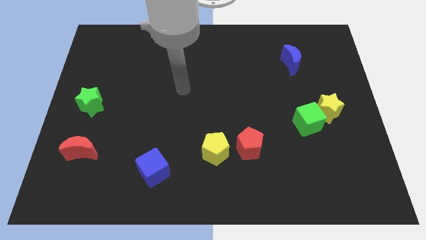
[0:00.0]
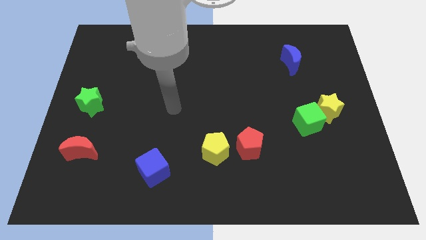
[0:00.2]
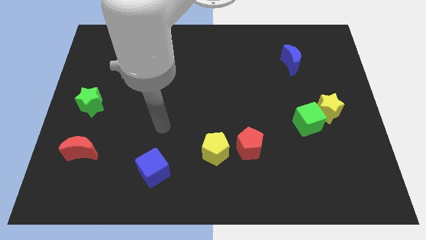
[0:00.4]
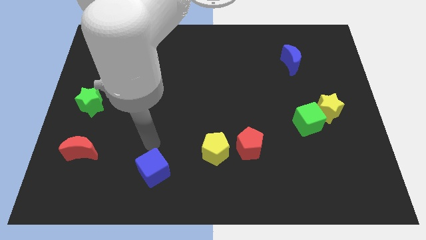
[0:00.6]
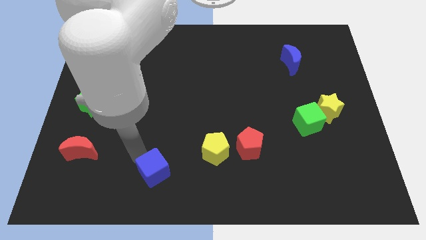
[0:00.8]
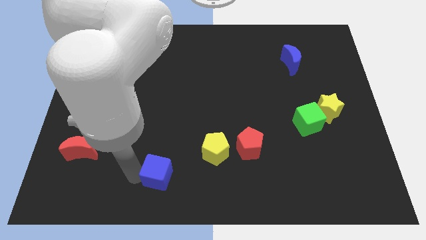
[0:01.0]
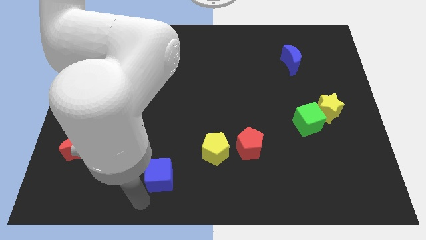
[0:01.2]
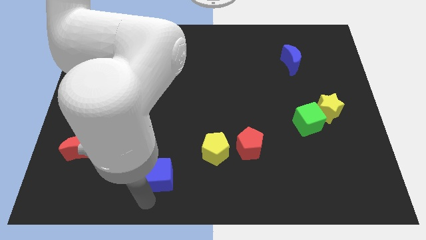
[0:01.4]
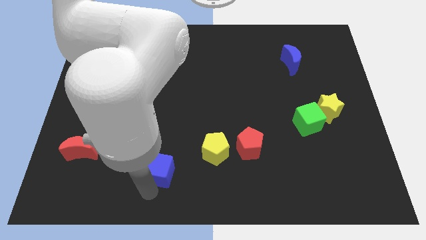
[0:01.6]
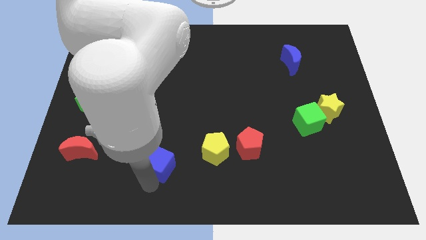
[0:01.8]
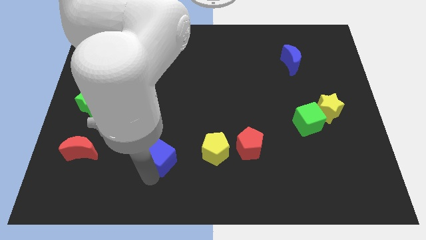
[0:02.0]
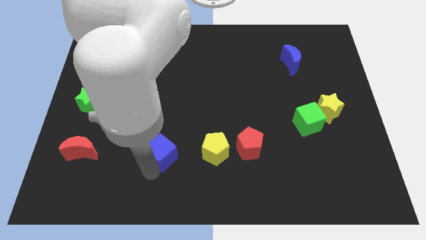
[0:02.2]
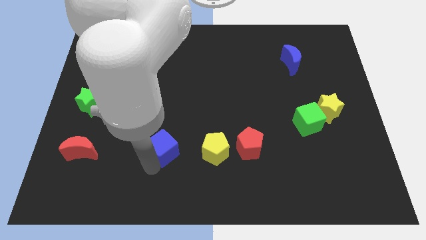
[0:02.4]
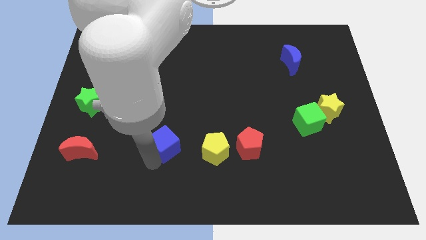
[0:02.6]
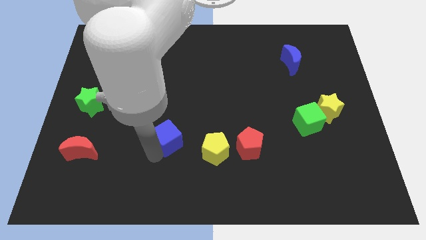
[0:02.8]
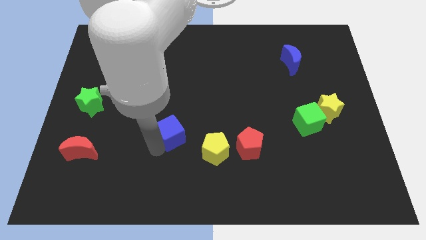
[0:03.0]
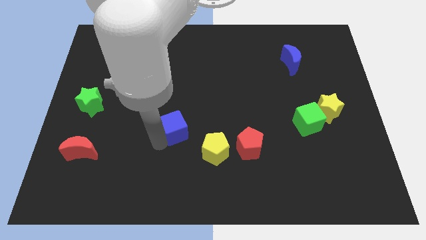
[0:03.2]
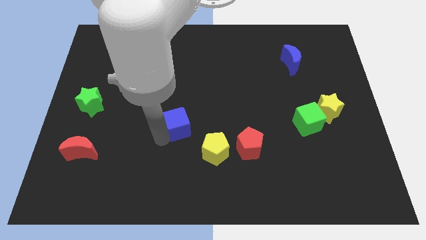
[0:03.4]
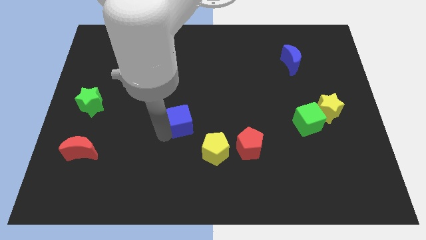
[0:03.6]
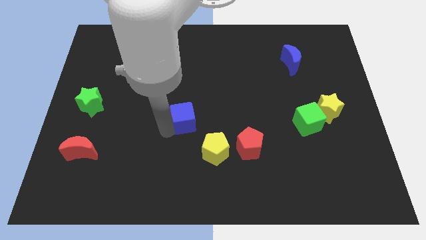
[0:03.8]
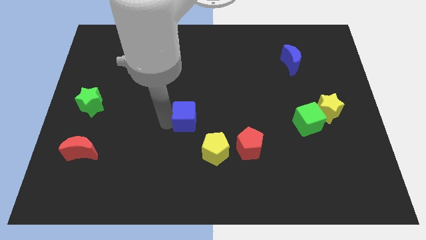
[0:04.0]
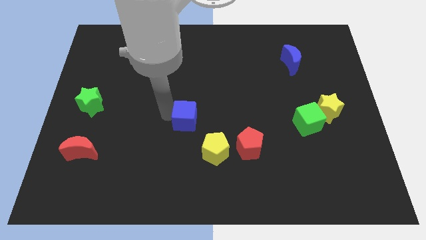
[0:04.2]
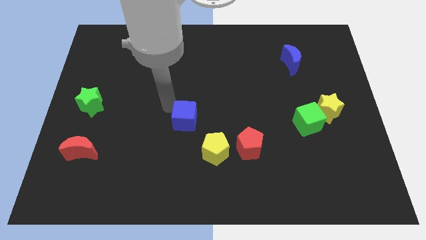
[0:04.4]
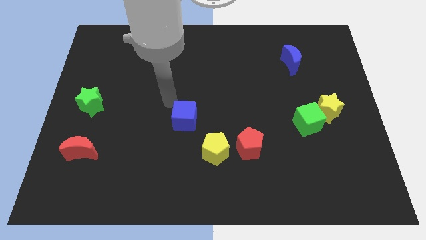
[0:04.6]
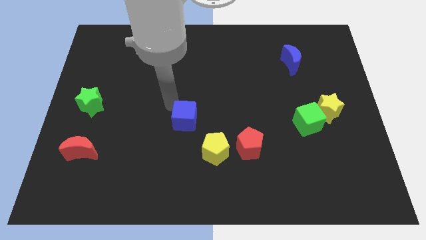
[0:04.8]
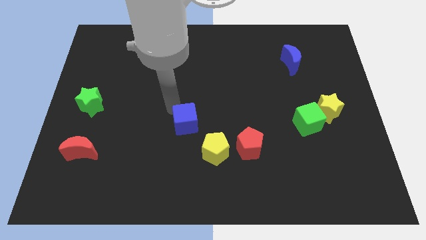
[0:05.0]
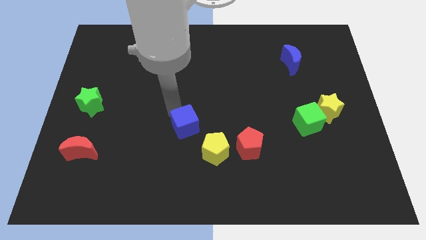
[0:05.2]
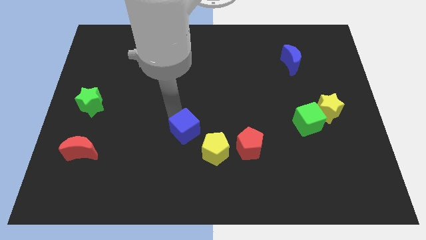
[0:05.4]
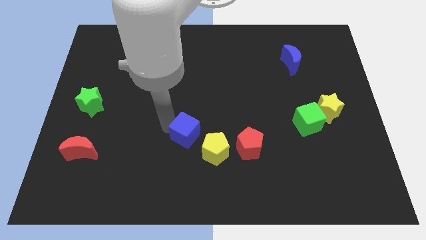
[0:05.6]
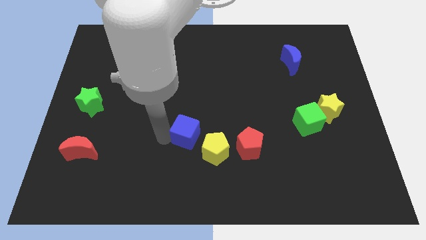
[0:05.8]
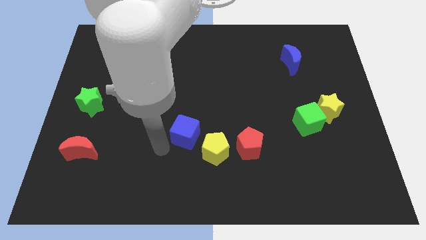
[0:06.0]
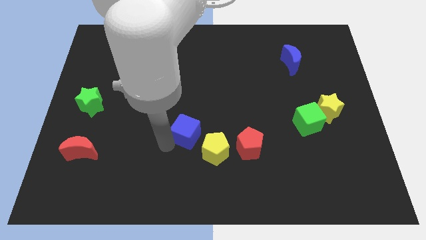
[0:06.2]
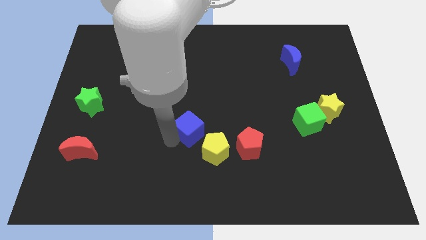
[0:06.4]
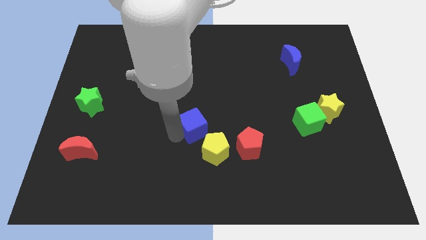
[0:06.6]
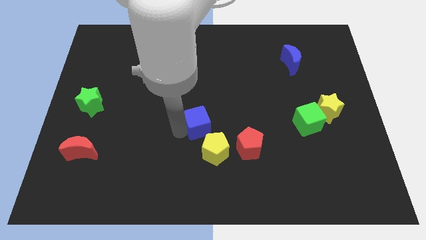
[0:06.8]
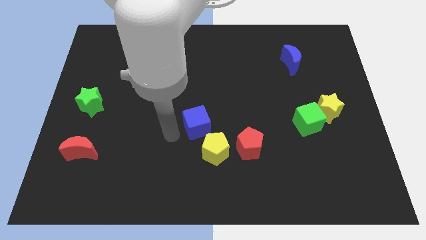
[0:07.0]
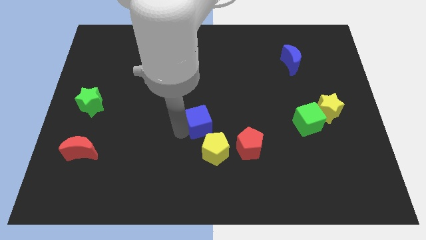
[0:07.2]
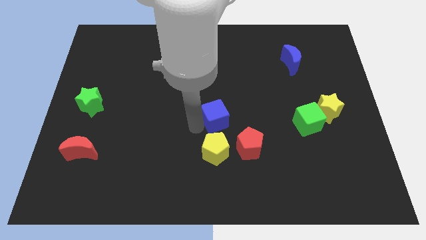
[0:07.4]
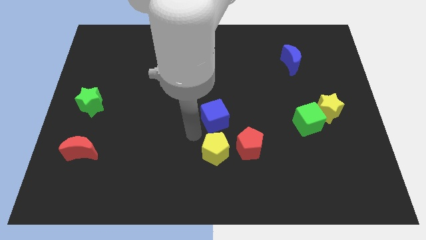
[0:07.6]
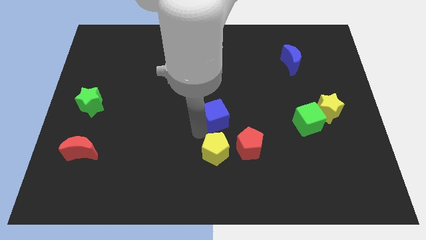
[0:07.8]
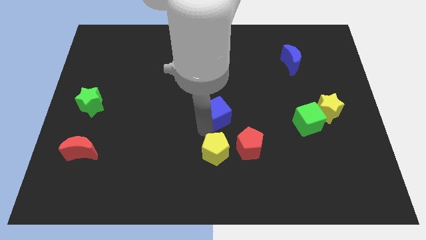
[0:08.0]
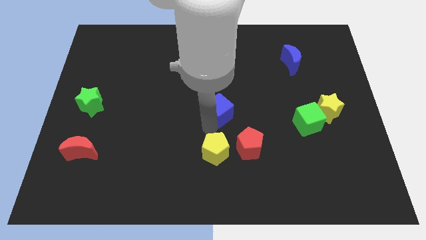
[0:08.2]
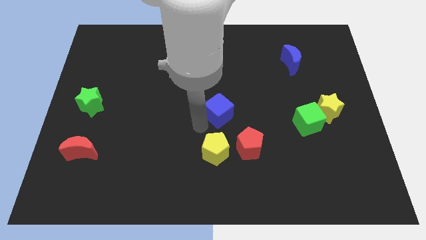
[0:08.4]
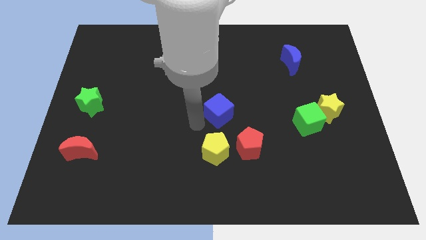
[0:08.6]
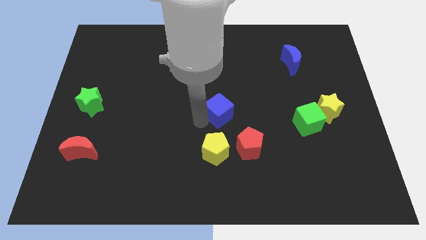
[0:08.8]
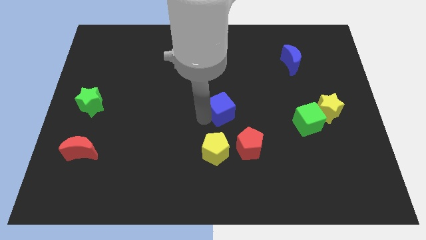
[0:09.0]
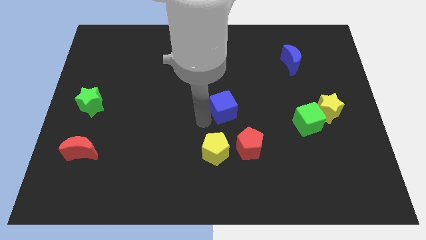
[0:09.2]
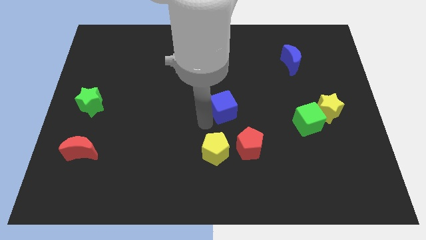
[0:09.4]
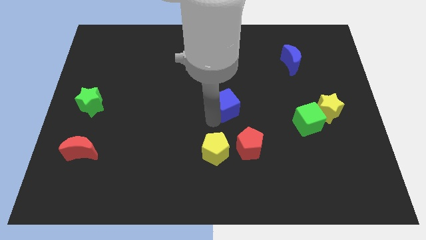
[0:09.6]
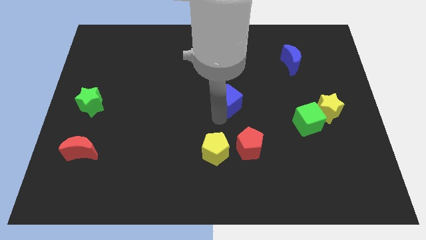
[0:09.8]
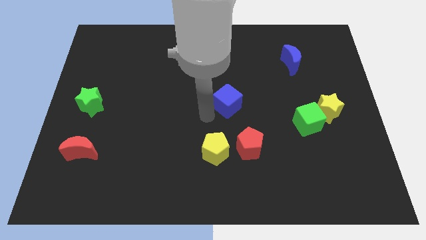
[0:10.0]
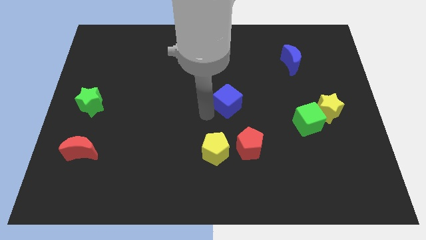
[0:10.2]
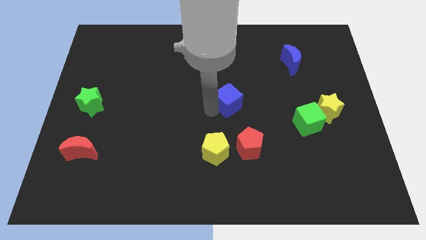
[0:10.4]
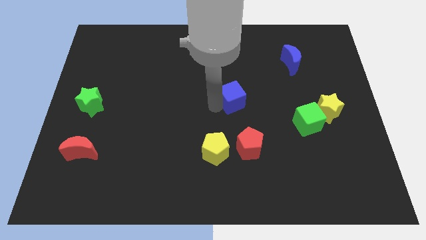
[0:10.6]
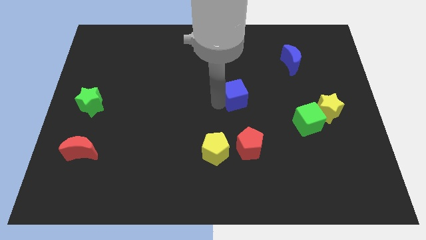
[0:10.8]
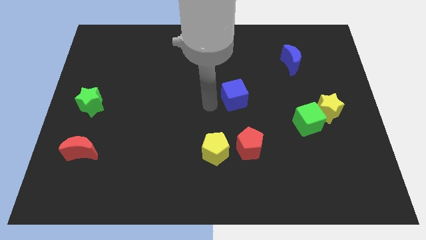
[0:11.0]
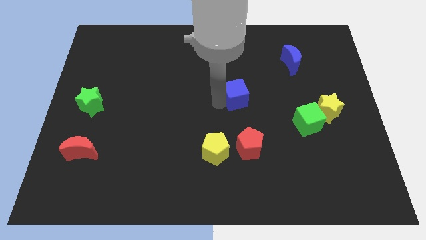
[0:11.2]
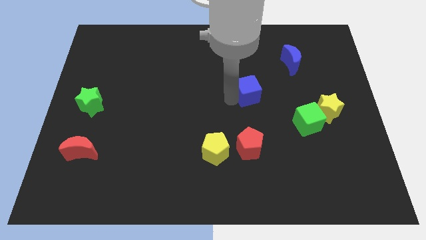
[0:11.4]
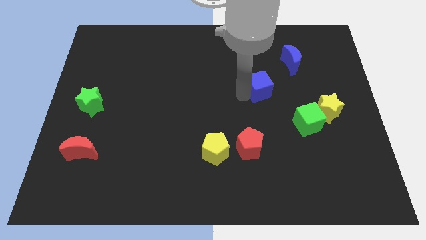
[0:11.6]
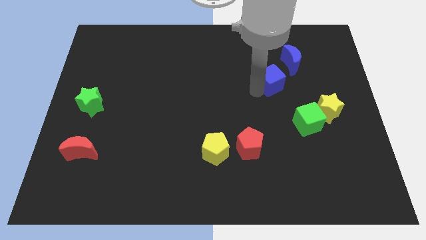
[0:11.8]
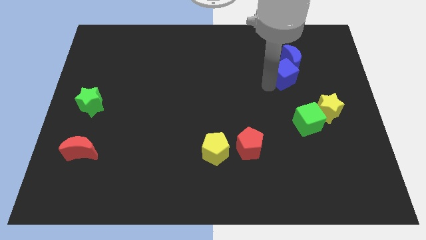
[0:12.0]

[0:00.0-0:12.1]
push the blue cube close to the blue moon

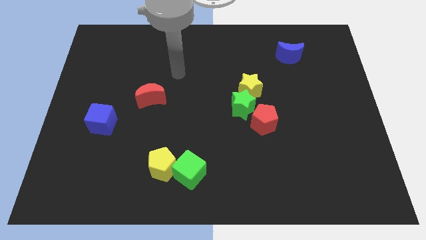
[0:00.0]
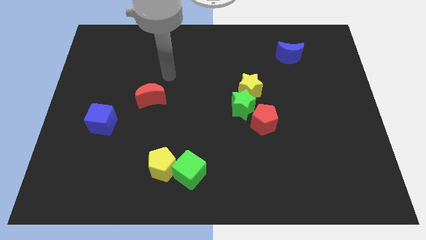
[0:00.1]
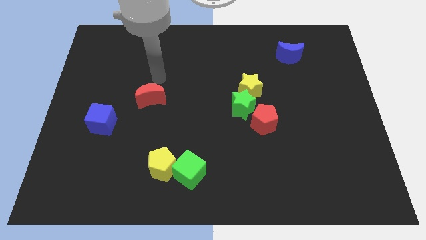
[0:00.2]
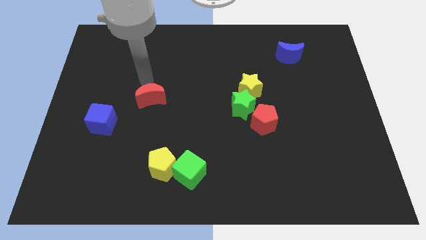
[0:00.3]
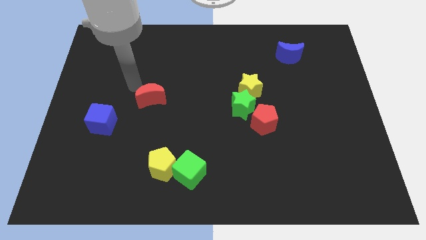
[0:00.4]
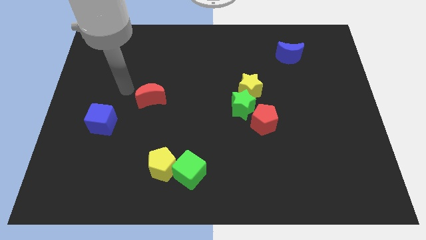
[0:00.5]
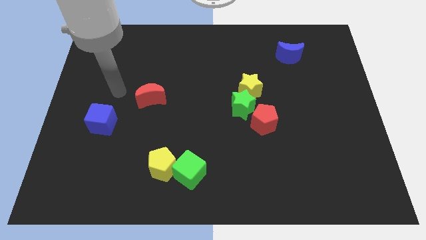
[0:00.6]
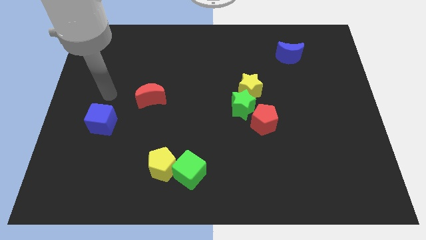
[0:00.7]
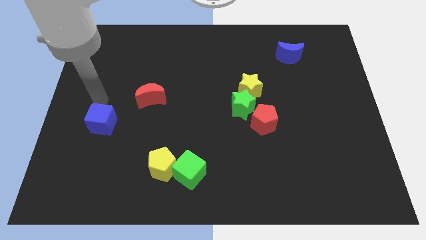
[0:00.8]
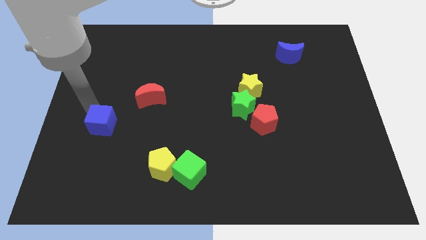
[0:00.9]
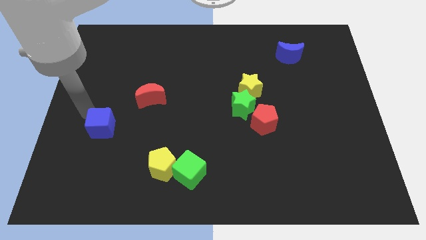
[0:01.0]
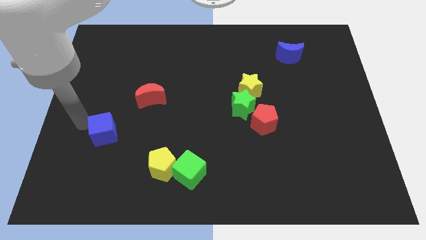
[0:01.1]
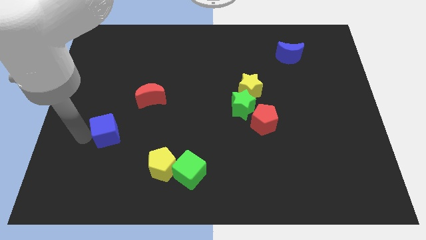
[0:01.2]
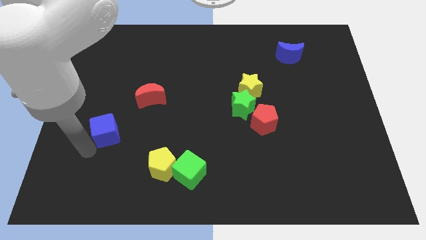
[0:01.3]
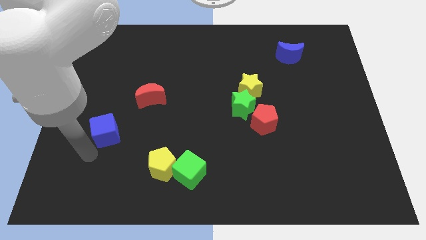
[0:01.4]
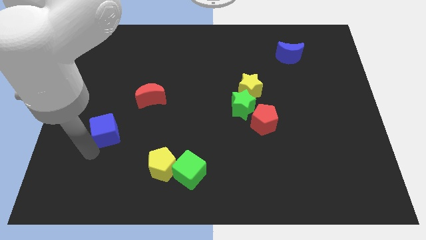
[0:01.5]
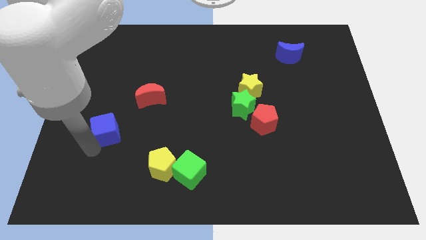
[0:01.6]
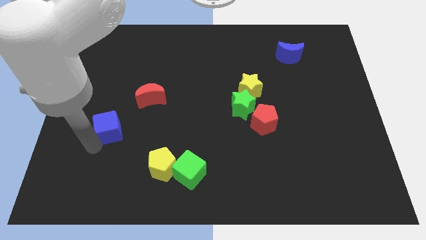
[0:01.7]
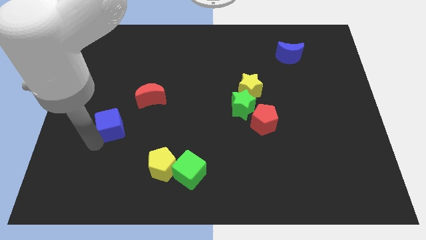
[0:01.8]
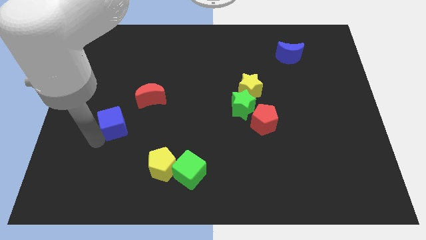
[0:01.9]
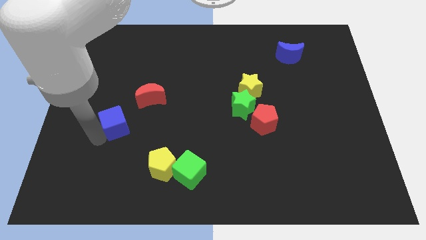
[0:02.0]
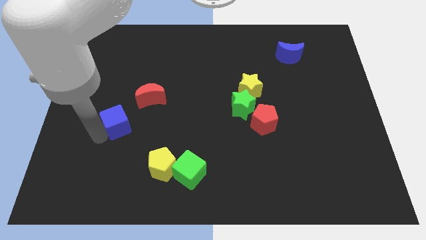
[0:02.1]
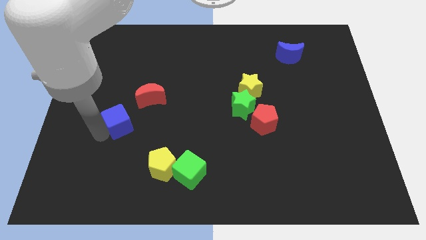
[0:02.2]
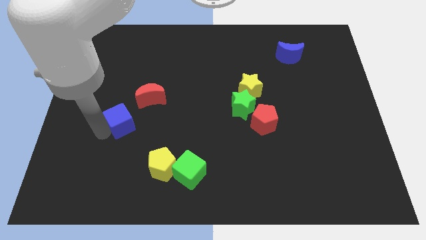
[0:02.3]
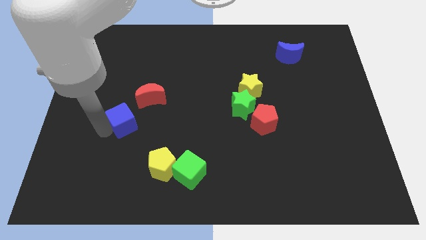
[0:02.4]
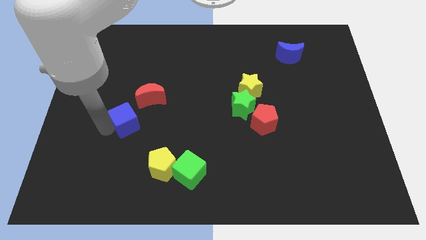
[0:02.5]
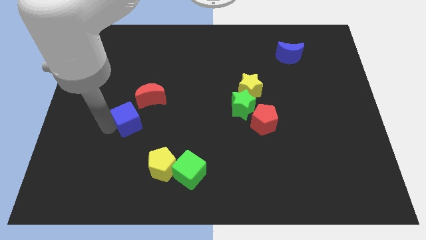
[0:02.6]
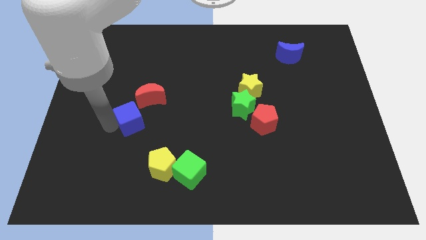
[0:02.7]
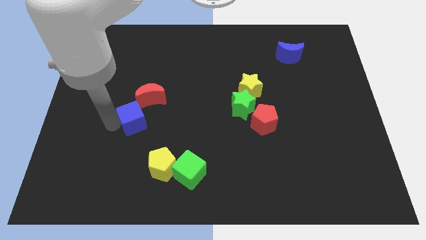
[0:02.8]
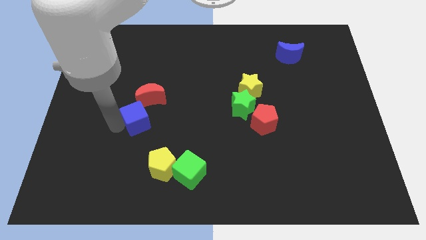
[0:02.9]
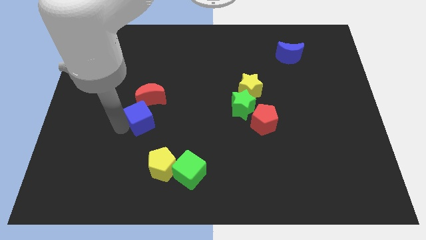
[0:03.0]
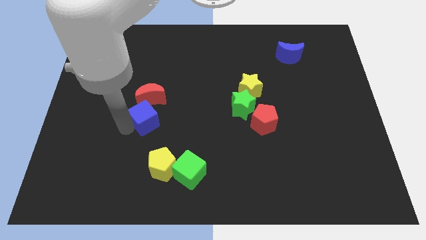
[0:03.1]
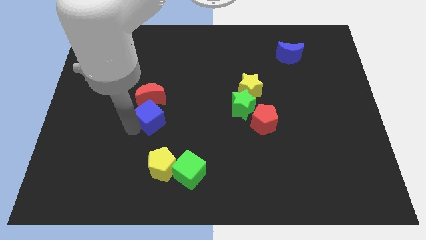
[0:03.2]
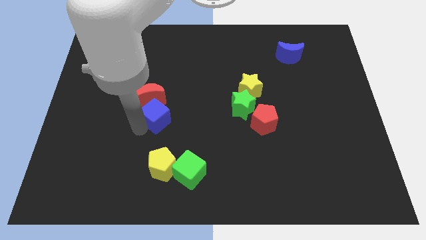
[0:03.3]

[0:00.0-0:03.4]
push the blue cube to the red moon
